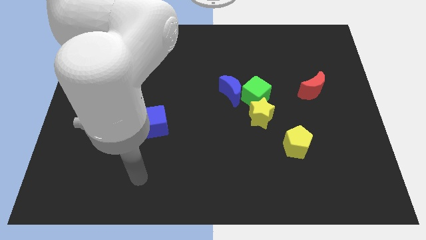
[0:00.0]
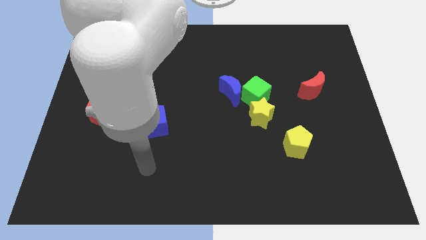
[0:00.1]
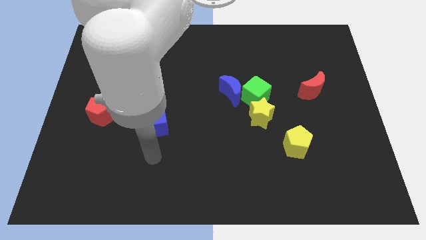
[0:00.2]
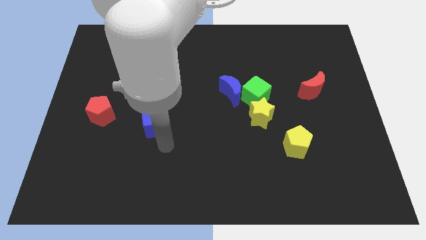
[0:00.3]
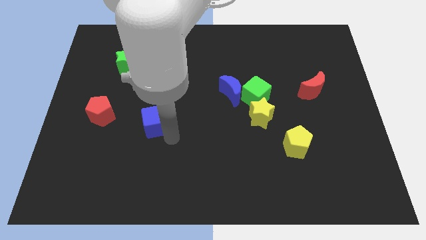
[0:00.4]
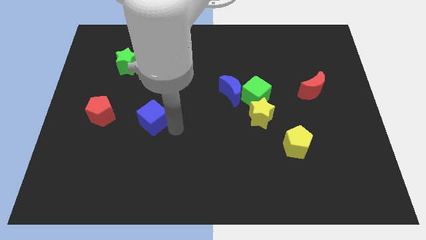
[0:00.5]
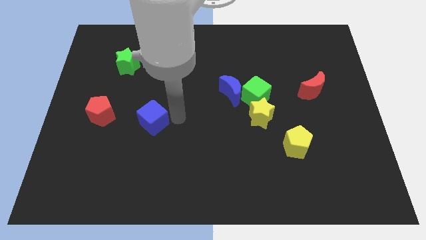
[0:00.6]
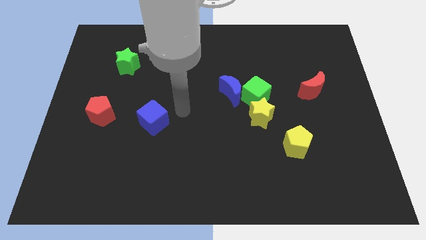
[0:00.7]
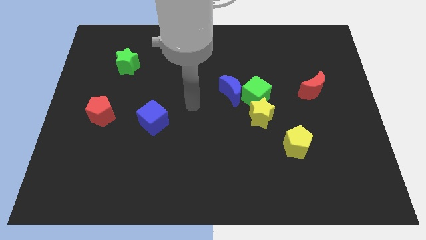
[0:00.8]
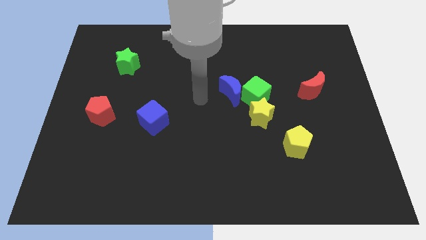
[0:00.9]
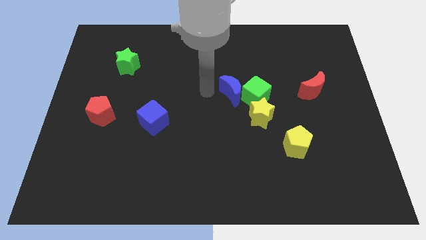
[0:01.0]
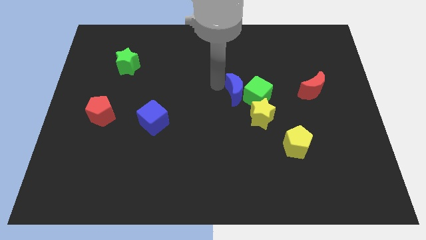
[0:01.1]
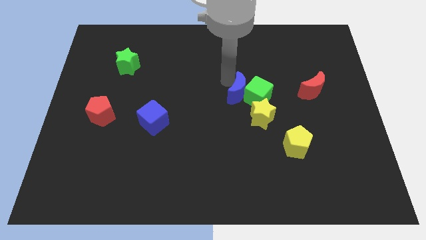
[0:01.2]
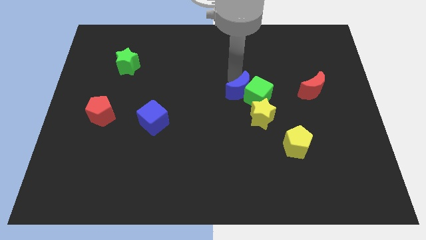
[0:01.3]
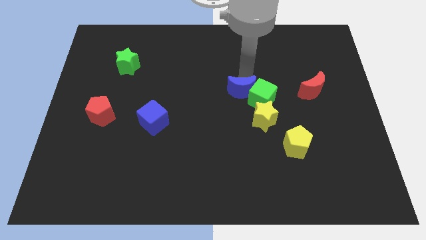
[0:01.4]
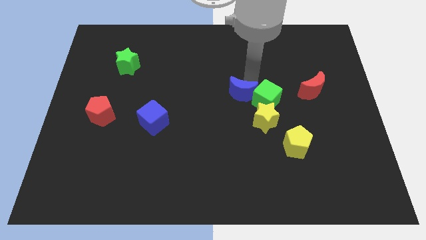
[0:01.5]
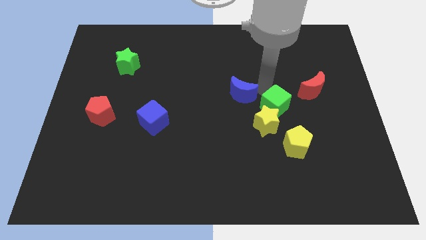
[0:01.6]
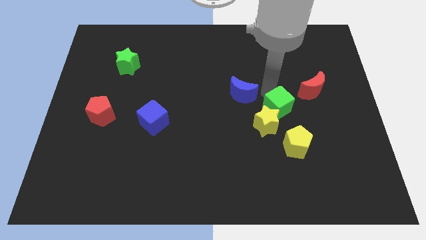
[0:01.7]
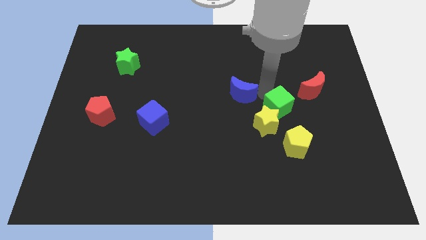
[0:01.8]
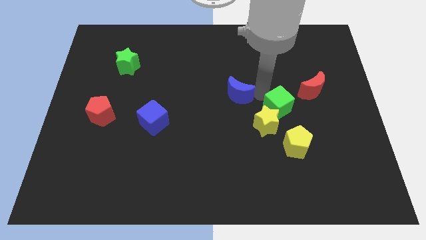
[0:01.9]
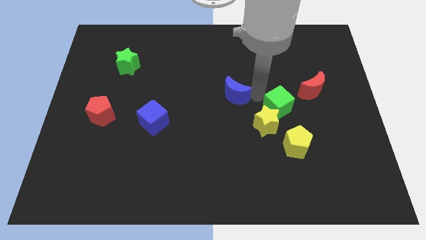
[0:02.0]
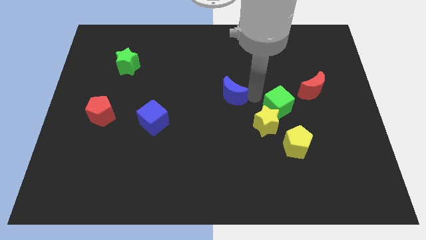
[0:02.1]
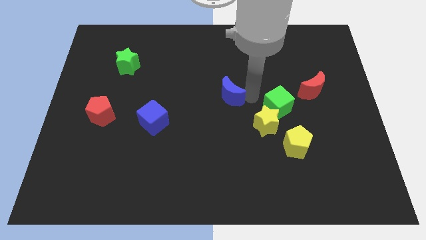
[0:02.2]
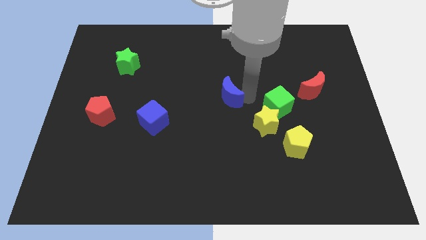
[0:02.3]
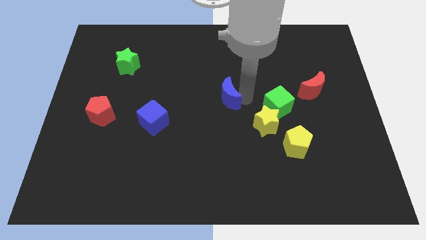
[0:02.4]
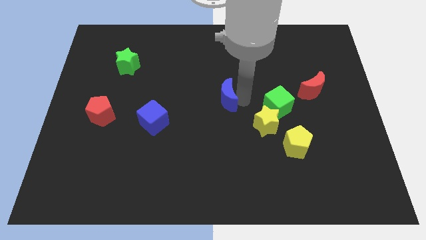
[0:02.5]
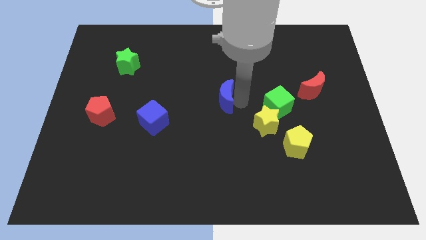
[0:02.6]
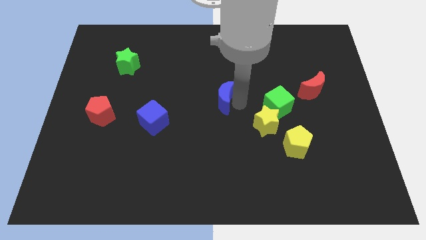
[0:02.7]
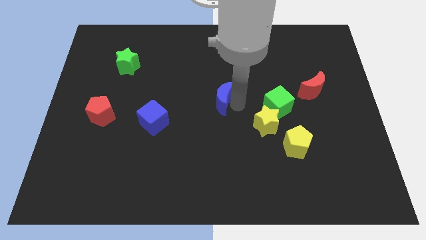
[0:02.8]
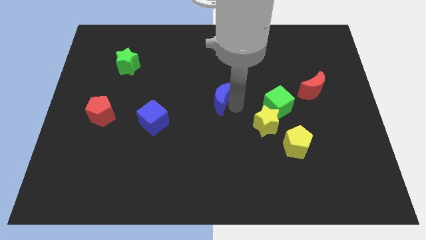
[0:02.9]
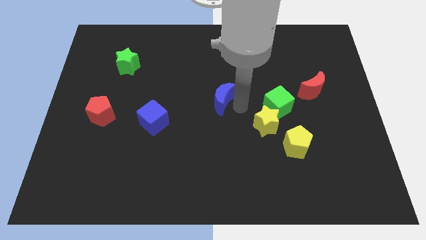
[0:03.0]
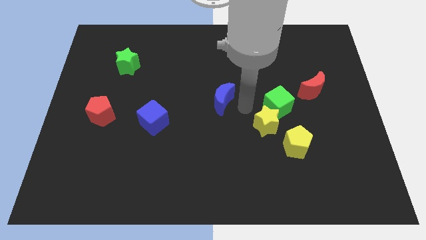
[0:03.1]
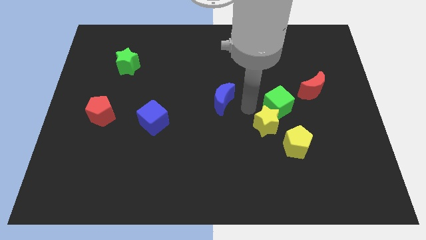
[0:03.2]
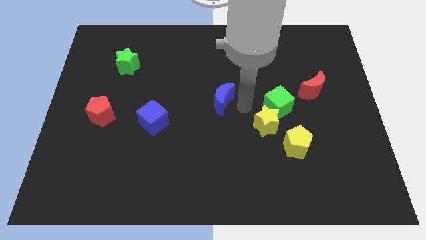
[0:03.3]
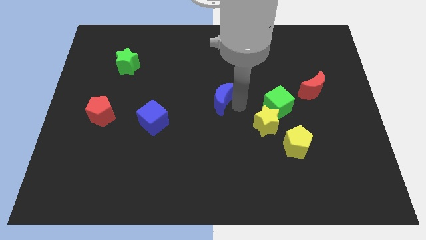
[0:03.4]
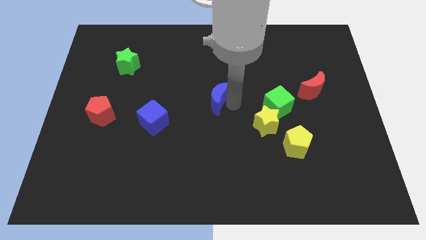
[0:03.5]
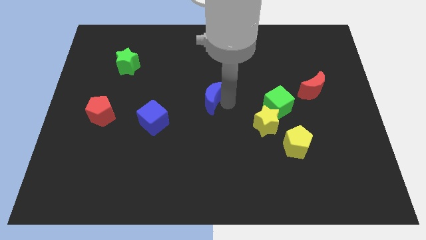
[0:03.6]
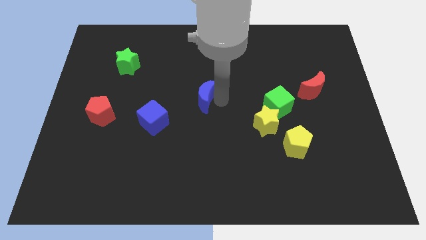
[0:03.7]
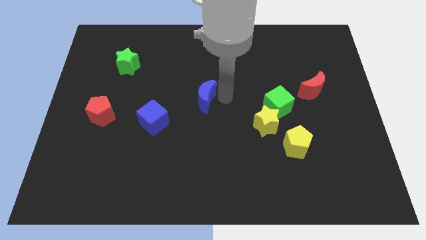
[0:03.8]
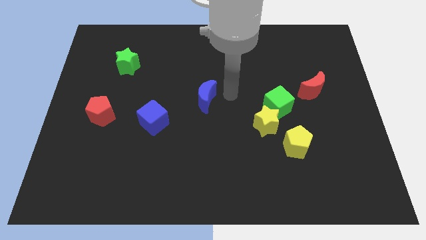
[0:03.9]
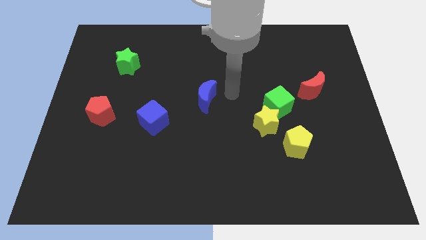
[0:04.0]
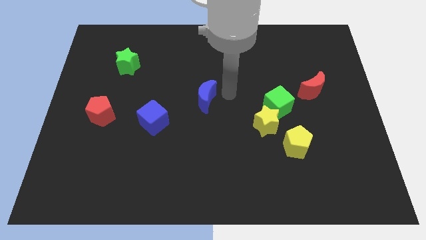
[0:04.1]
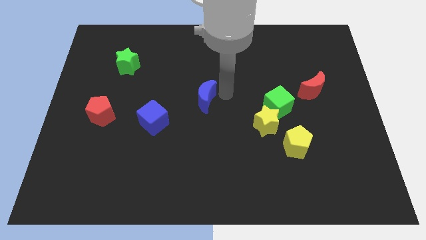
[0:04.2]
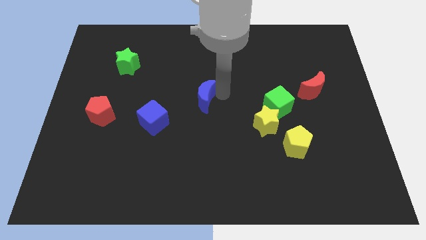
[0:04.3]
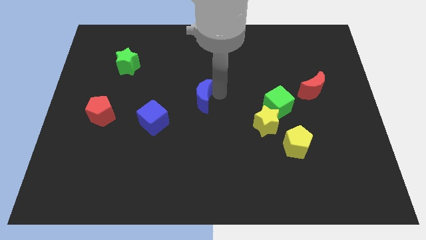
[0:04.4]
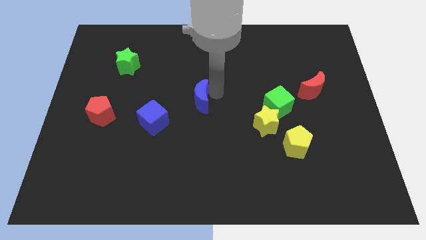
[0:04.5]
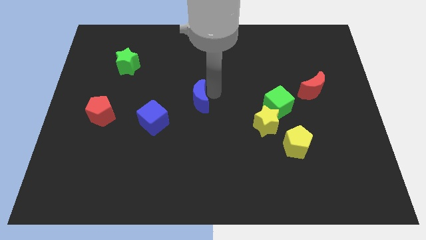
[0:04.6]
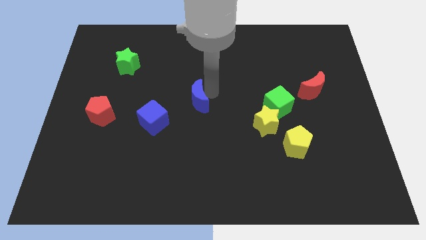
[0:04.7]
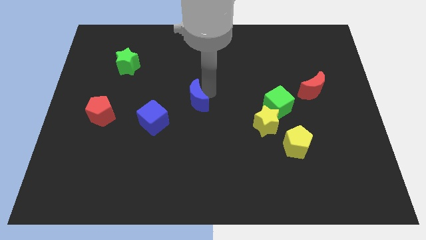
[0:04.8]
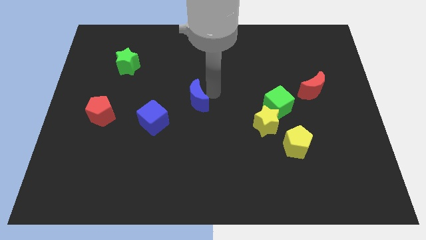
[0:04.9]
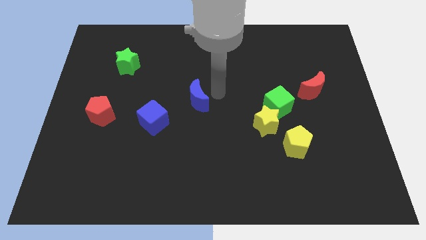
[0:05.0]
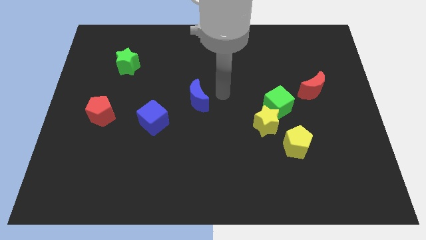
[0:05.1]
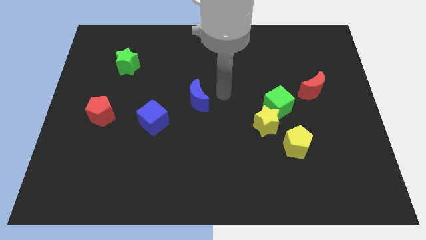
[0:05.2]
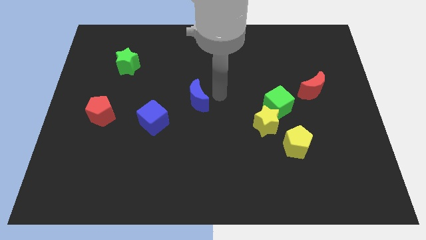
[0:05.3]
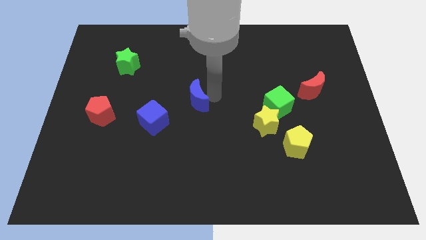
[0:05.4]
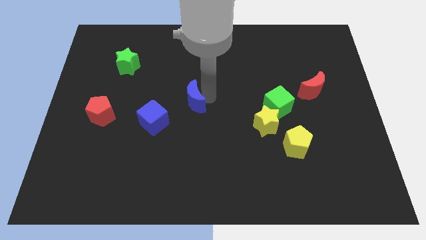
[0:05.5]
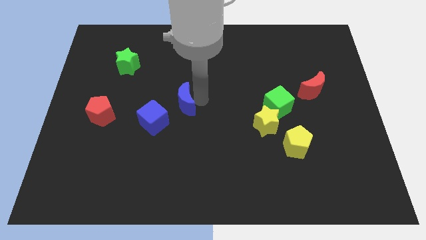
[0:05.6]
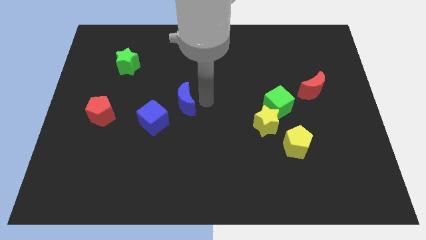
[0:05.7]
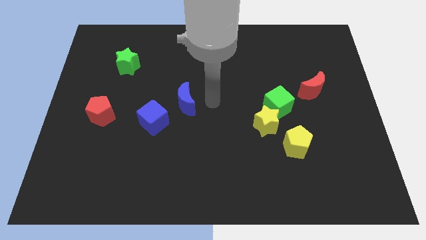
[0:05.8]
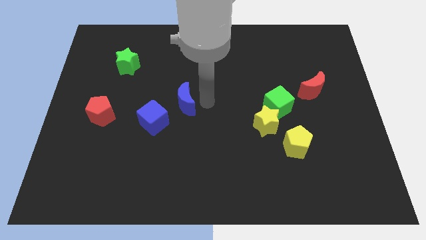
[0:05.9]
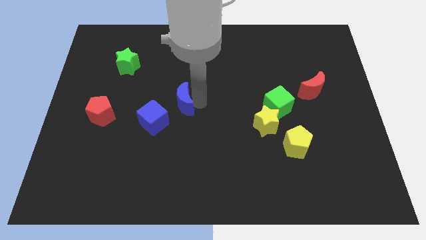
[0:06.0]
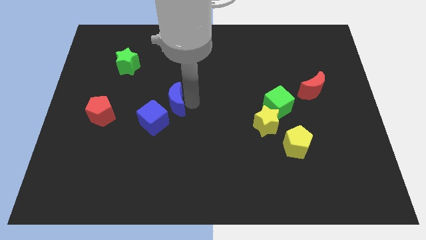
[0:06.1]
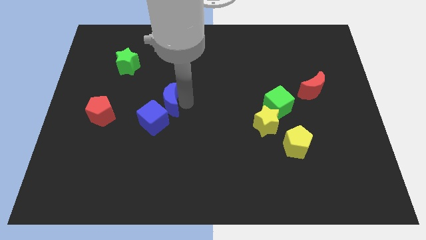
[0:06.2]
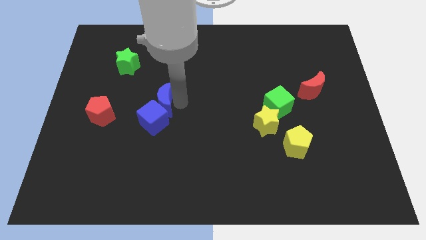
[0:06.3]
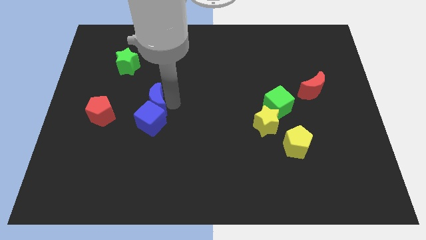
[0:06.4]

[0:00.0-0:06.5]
put the blue moon diagonally up and to the left of the blue cube

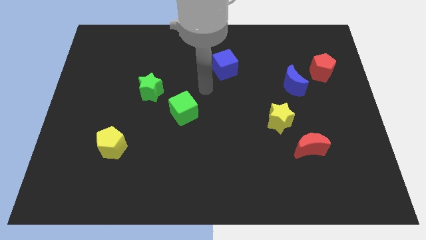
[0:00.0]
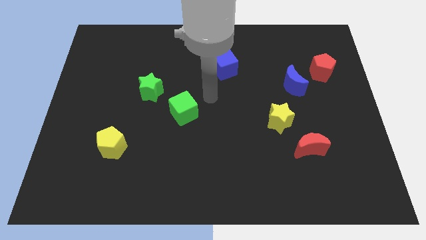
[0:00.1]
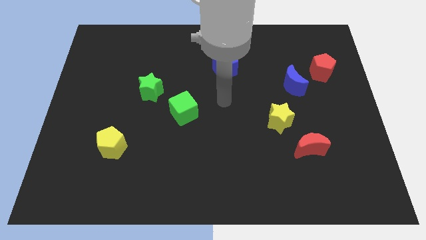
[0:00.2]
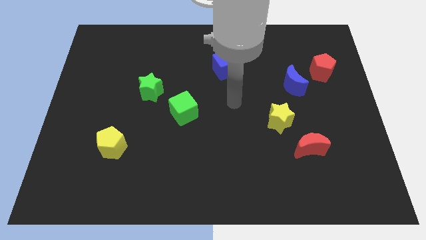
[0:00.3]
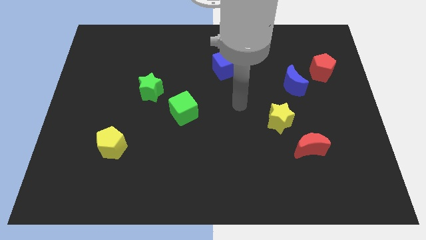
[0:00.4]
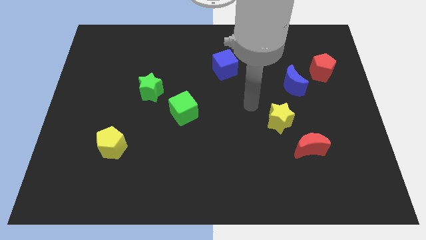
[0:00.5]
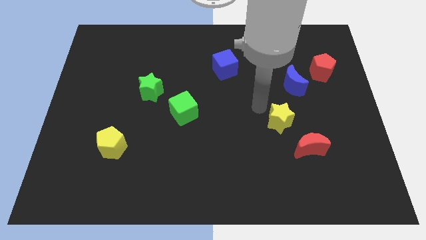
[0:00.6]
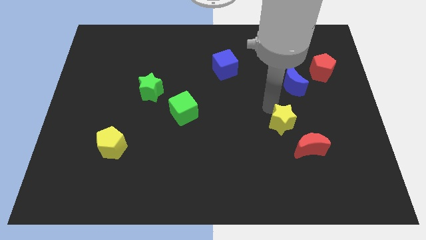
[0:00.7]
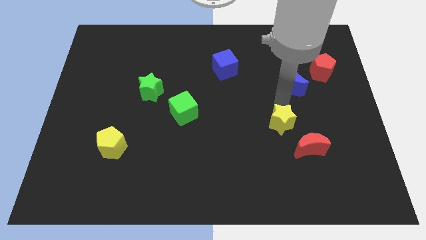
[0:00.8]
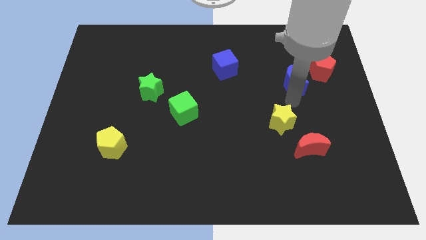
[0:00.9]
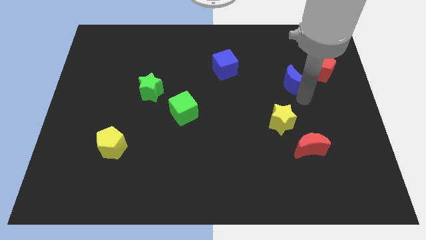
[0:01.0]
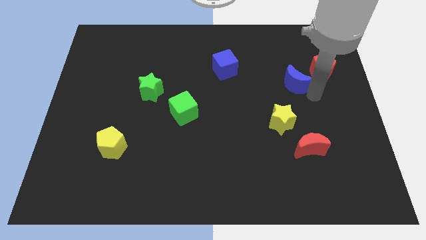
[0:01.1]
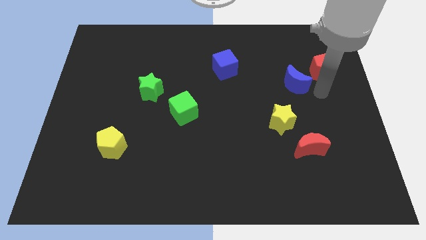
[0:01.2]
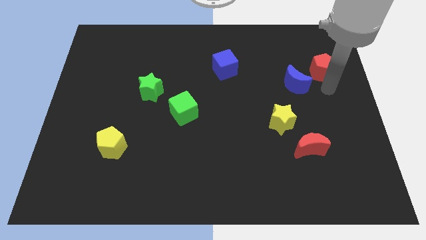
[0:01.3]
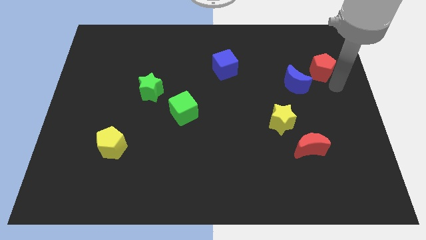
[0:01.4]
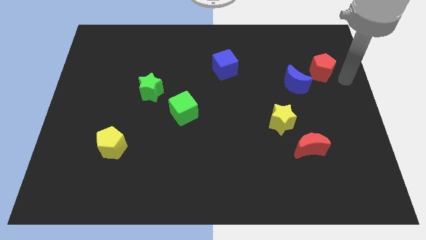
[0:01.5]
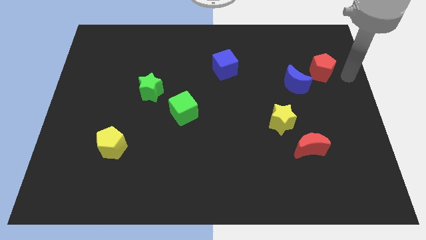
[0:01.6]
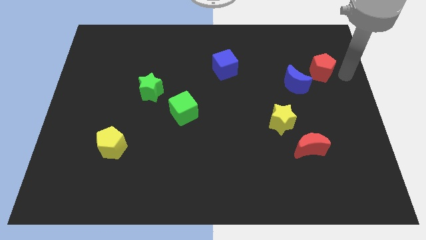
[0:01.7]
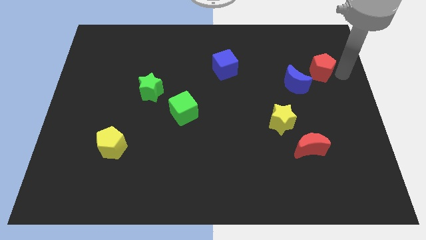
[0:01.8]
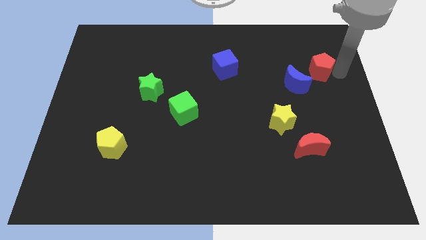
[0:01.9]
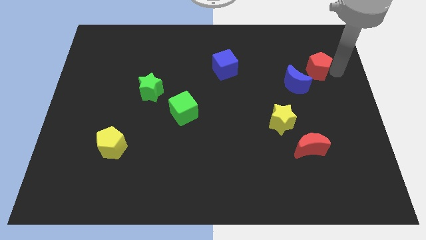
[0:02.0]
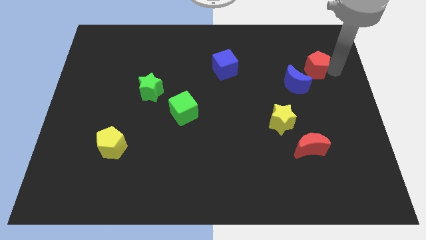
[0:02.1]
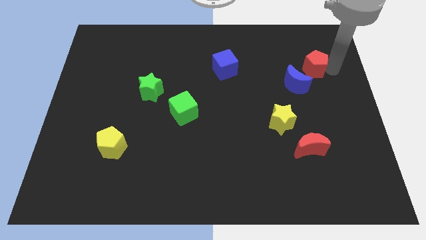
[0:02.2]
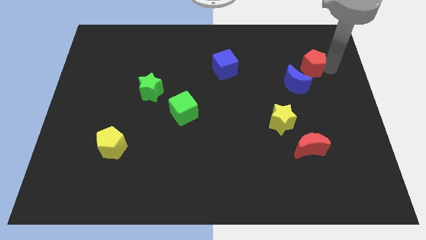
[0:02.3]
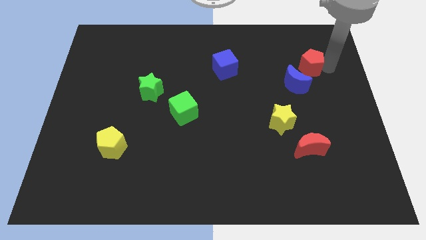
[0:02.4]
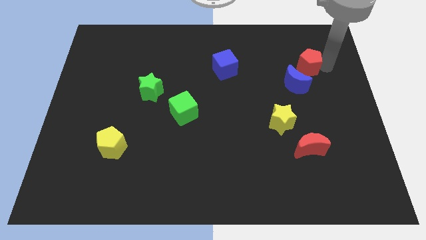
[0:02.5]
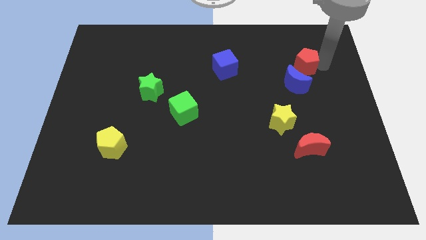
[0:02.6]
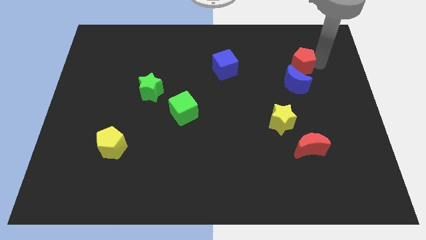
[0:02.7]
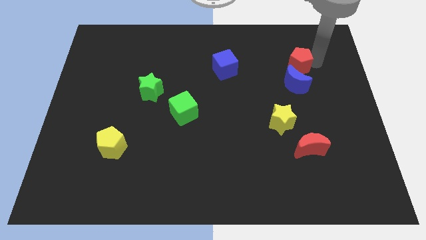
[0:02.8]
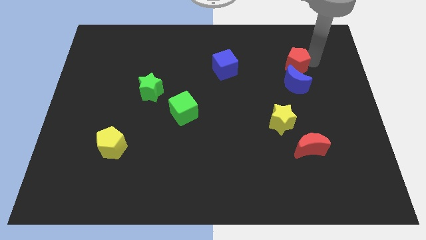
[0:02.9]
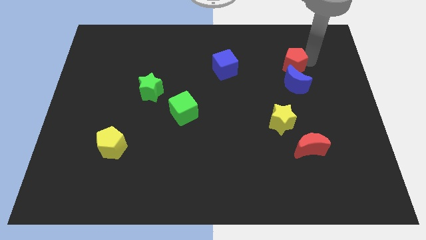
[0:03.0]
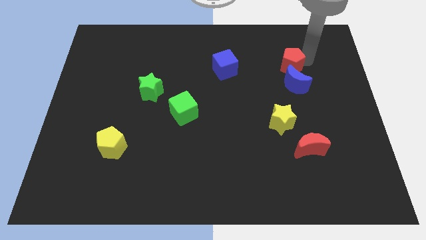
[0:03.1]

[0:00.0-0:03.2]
push the red pentagon diagonally up and to the left of the blue moon
